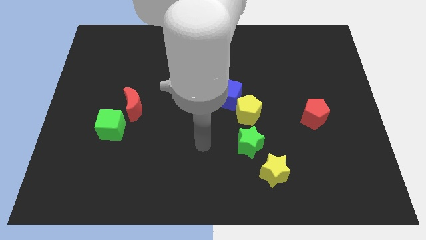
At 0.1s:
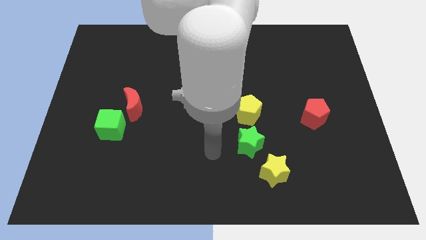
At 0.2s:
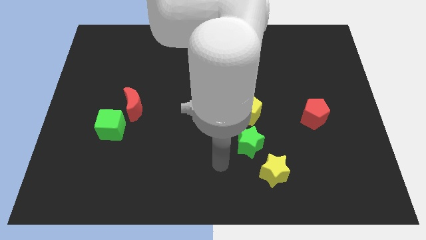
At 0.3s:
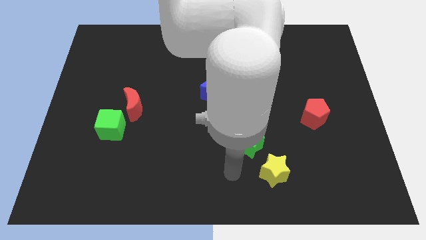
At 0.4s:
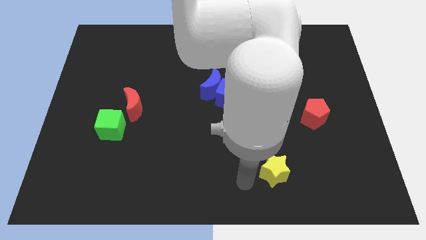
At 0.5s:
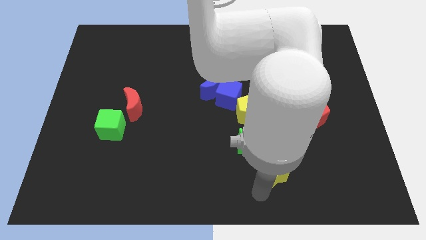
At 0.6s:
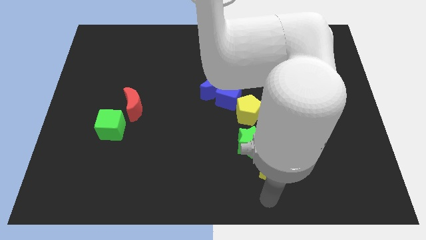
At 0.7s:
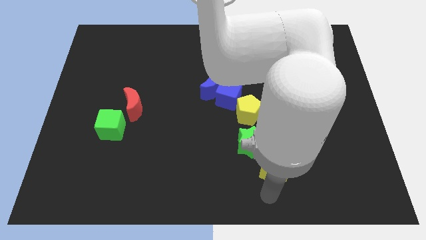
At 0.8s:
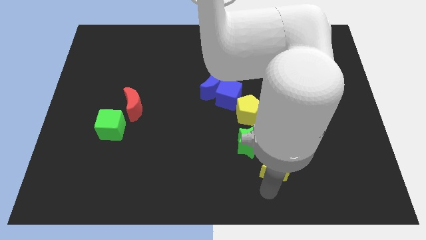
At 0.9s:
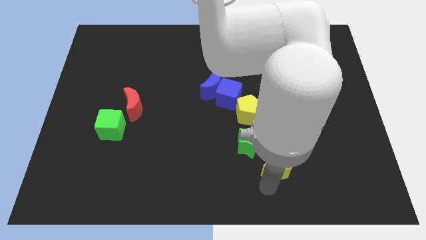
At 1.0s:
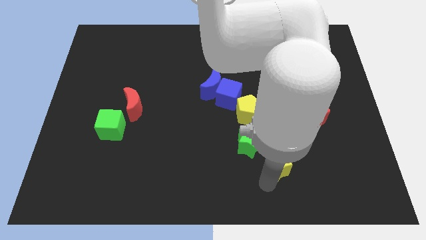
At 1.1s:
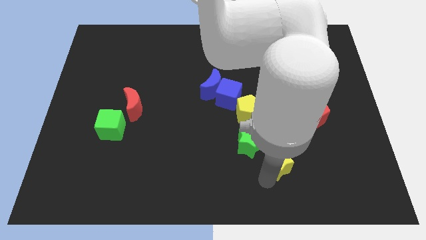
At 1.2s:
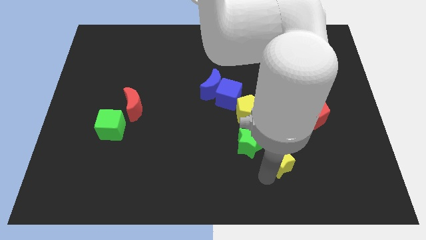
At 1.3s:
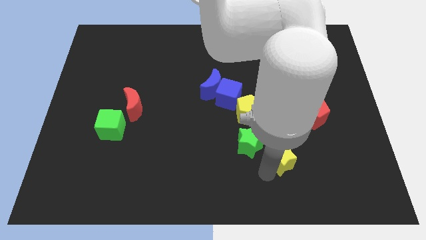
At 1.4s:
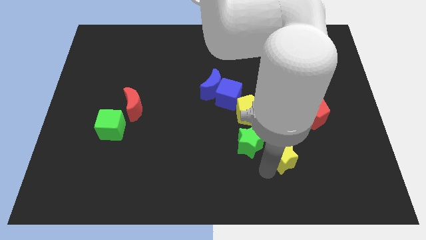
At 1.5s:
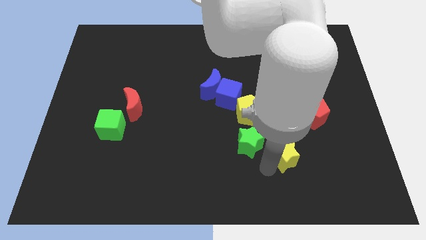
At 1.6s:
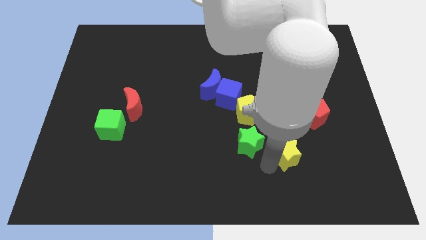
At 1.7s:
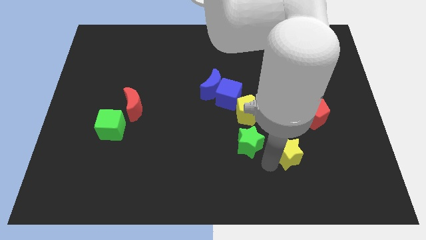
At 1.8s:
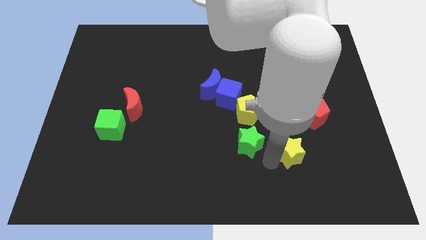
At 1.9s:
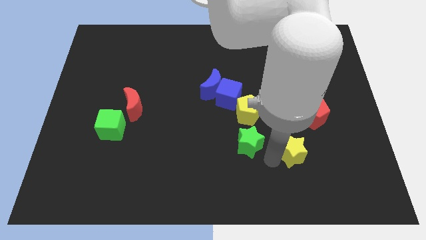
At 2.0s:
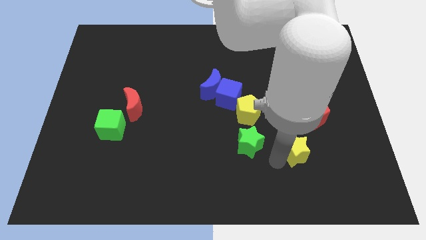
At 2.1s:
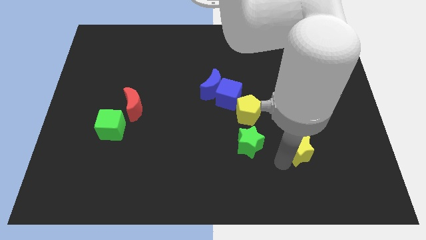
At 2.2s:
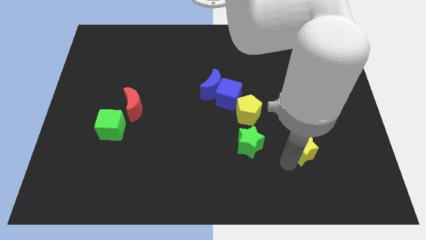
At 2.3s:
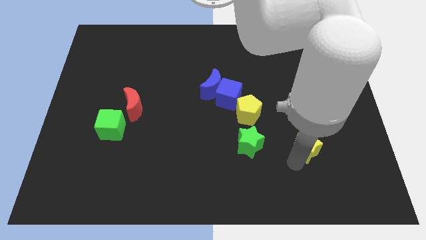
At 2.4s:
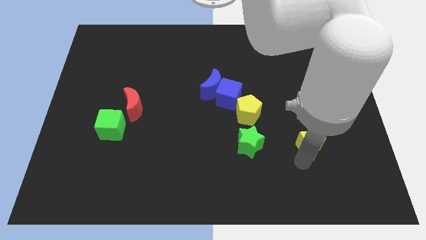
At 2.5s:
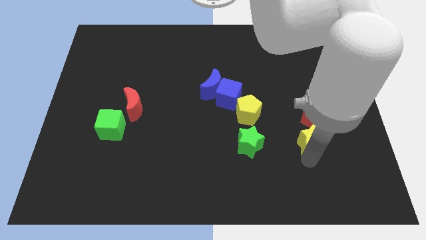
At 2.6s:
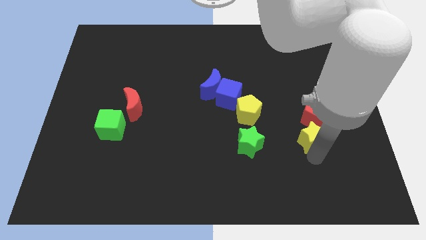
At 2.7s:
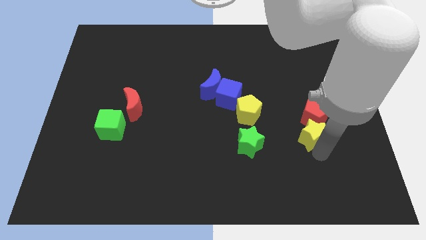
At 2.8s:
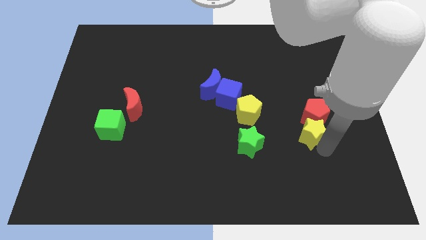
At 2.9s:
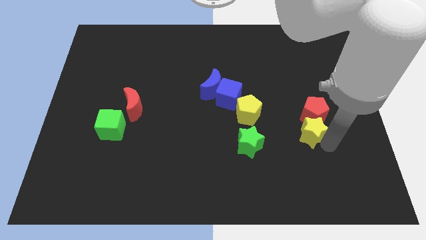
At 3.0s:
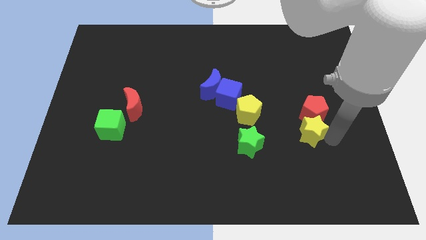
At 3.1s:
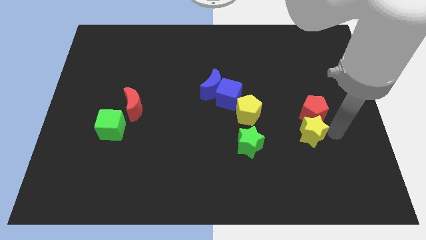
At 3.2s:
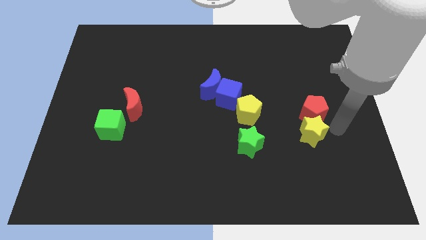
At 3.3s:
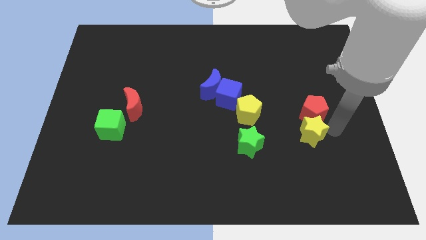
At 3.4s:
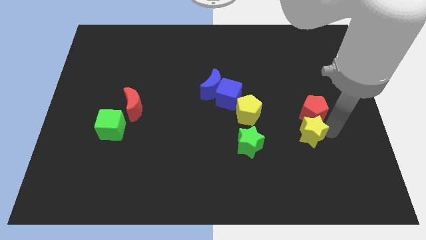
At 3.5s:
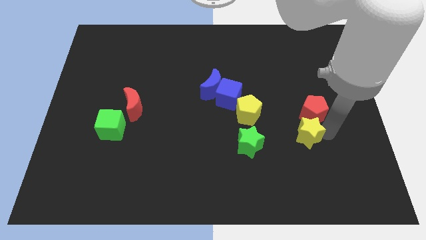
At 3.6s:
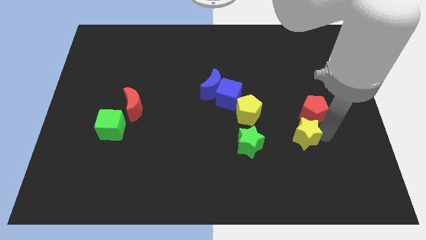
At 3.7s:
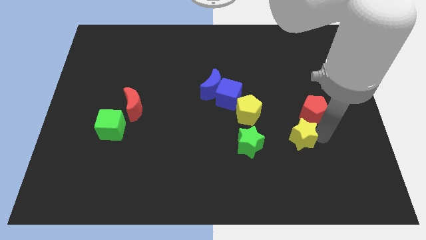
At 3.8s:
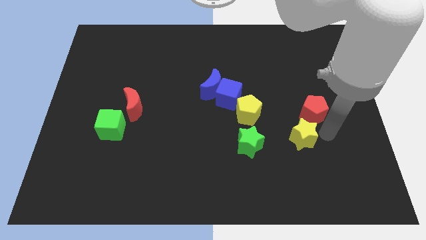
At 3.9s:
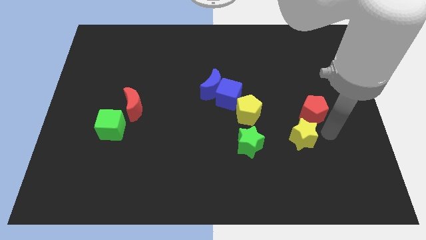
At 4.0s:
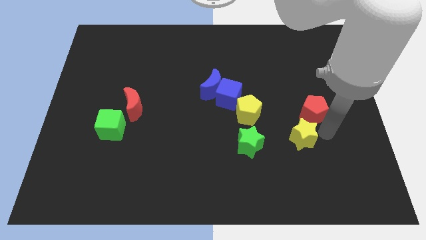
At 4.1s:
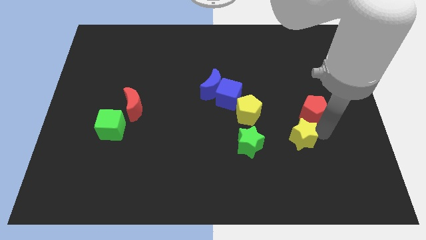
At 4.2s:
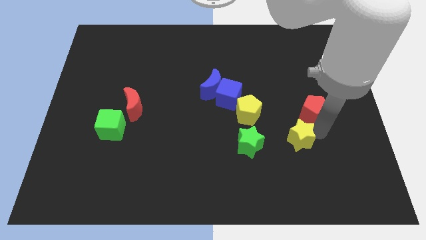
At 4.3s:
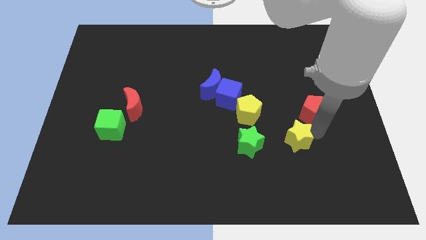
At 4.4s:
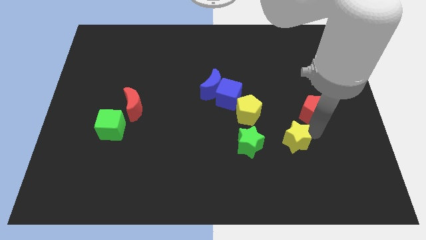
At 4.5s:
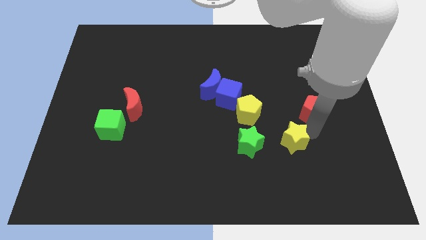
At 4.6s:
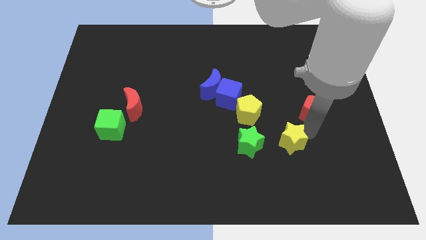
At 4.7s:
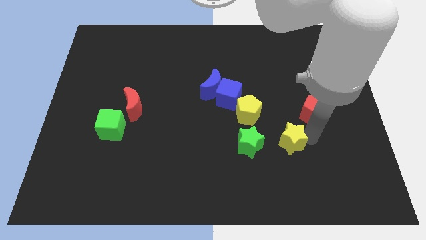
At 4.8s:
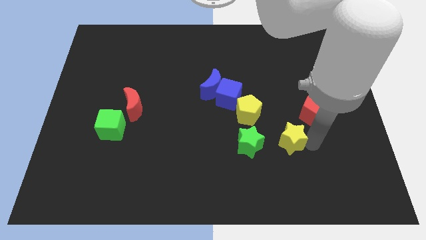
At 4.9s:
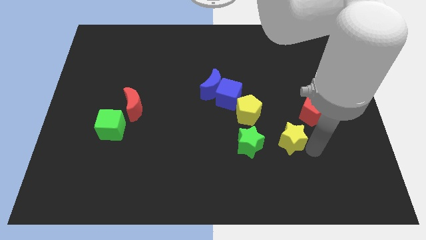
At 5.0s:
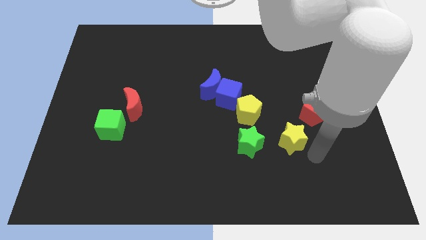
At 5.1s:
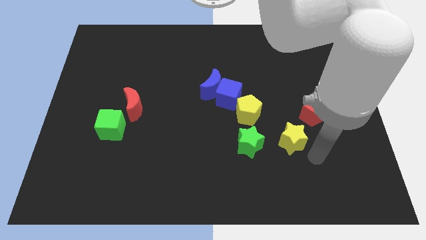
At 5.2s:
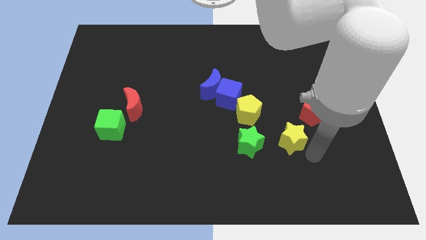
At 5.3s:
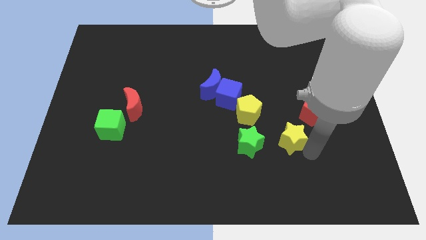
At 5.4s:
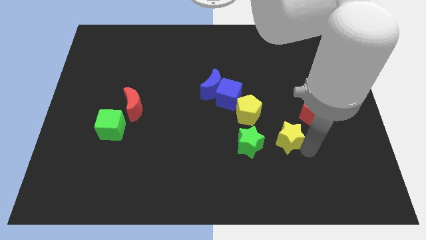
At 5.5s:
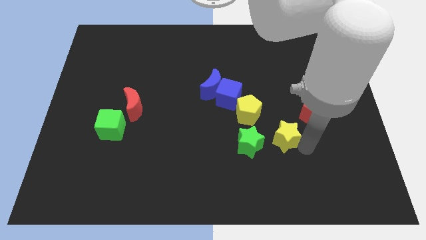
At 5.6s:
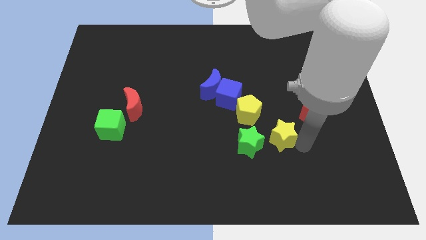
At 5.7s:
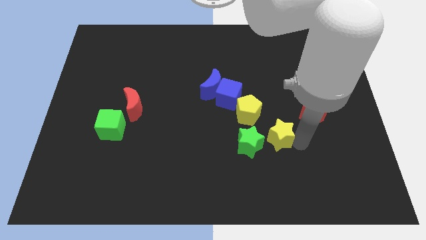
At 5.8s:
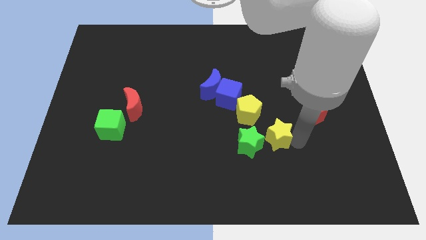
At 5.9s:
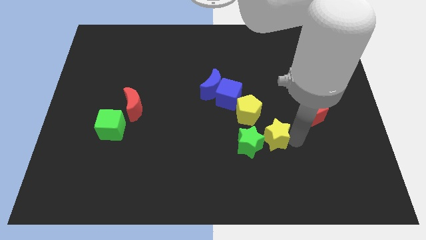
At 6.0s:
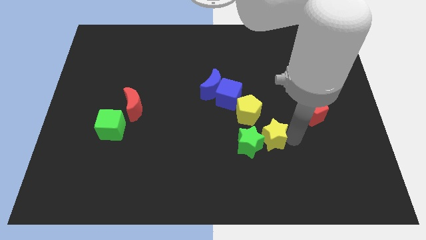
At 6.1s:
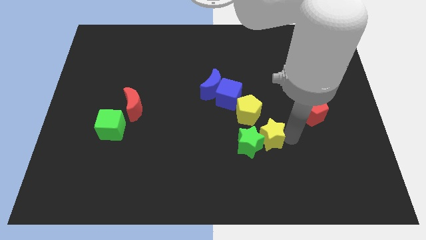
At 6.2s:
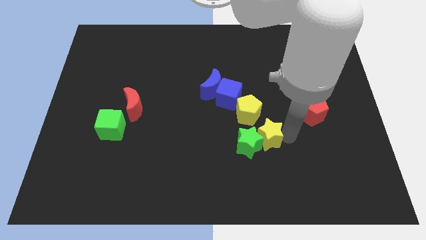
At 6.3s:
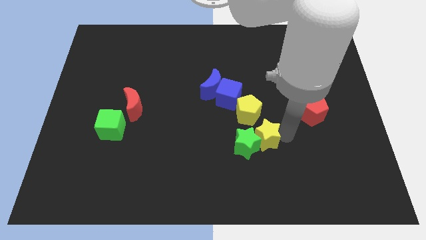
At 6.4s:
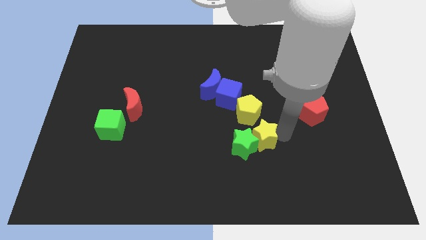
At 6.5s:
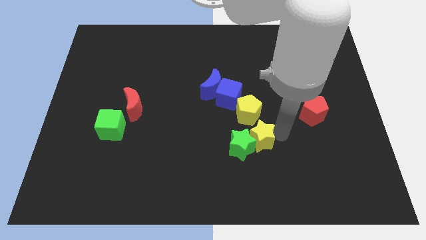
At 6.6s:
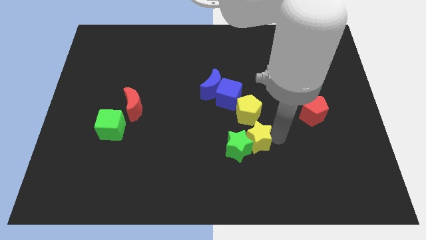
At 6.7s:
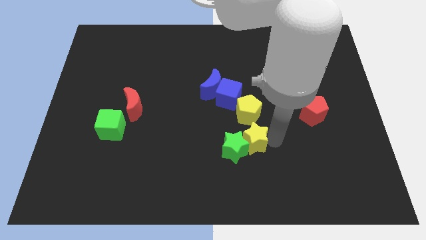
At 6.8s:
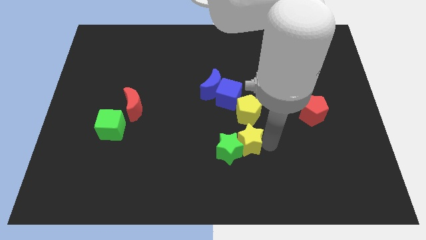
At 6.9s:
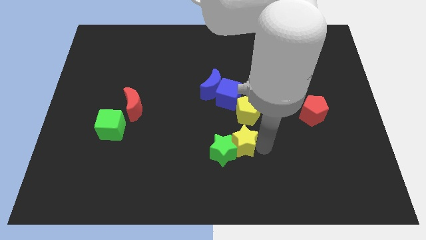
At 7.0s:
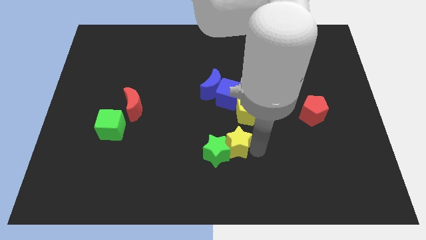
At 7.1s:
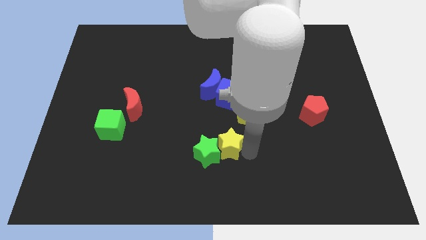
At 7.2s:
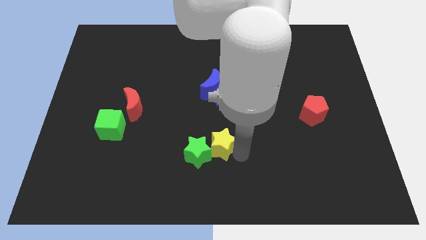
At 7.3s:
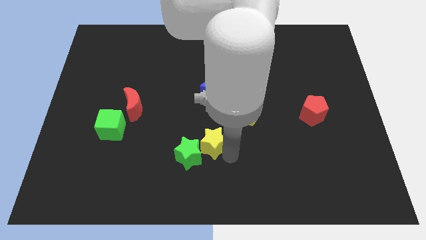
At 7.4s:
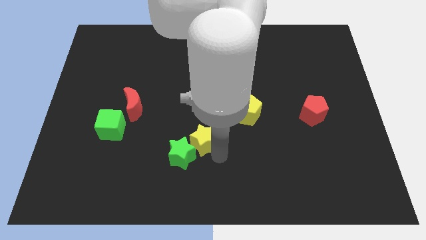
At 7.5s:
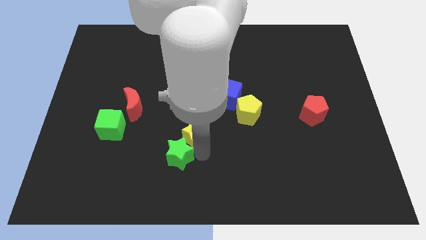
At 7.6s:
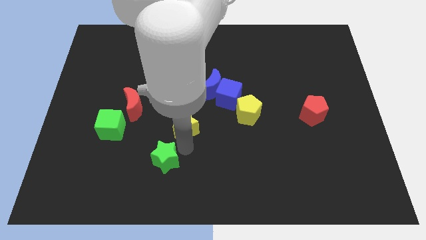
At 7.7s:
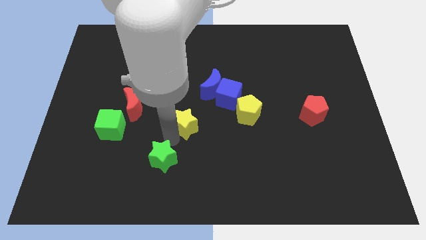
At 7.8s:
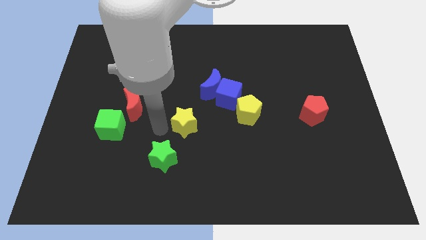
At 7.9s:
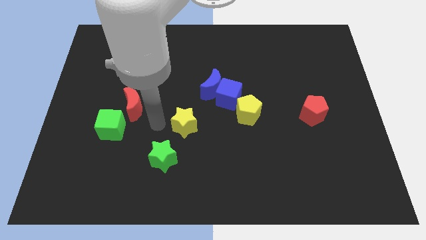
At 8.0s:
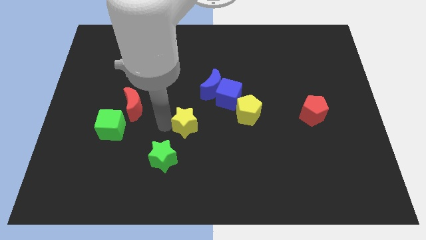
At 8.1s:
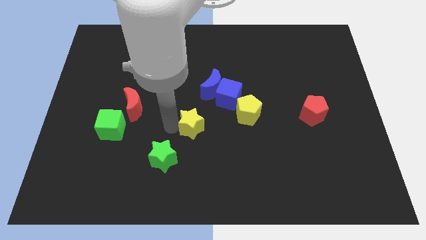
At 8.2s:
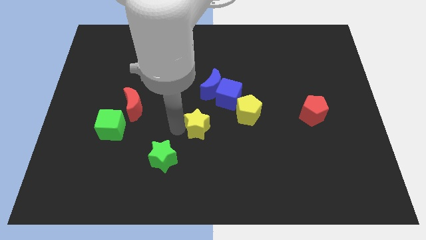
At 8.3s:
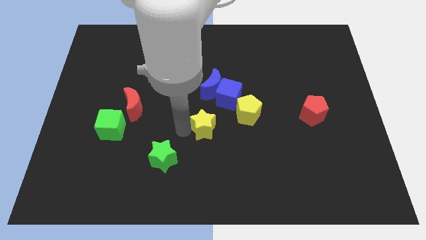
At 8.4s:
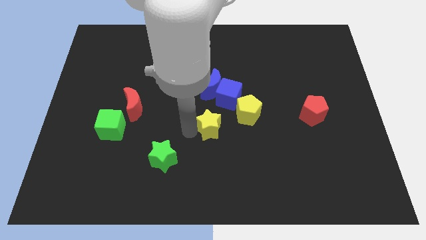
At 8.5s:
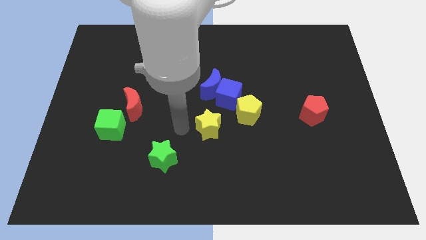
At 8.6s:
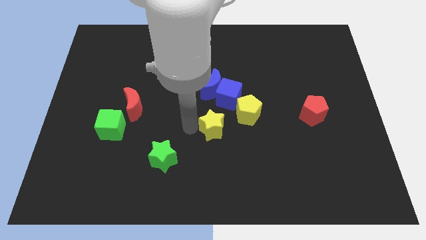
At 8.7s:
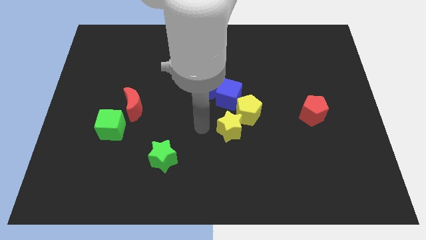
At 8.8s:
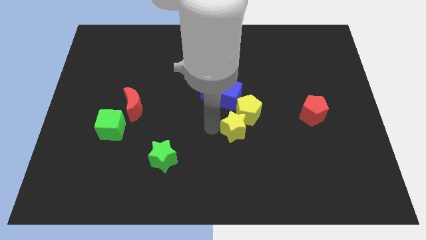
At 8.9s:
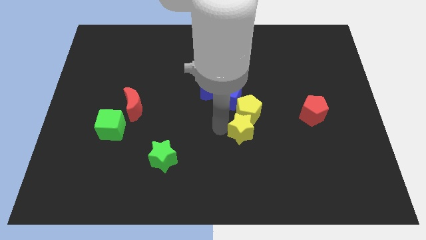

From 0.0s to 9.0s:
push the yellow star to the bottom right of the blue cube
